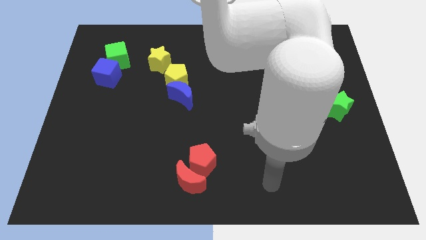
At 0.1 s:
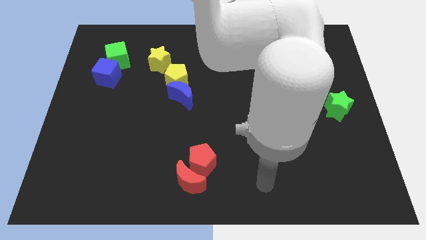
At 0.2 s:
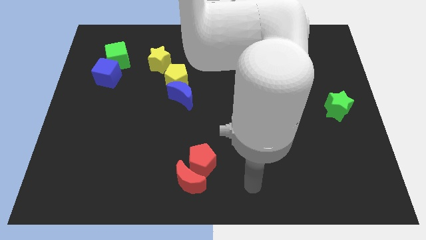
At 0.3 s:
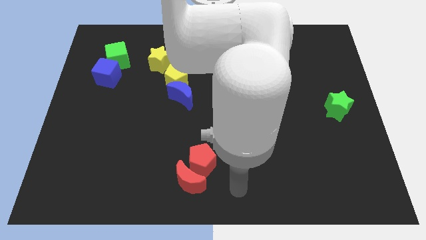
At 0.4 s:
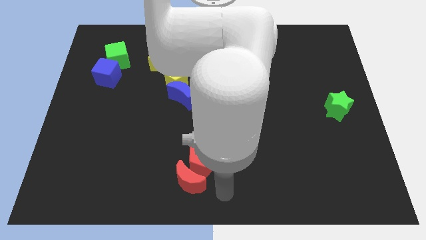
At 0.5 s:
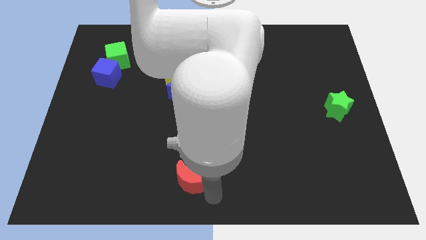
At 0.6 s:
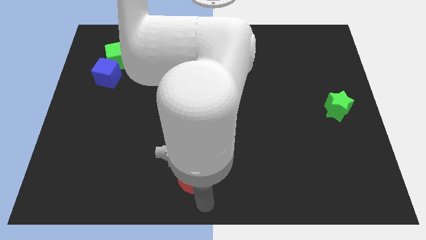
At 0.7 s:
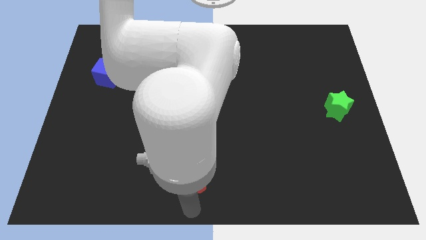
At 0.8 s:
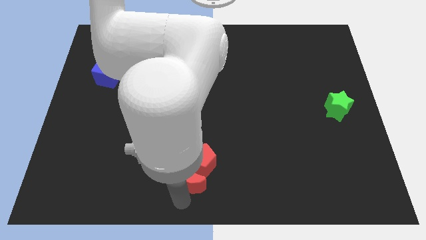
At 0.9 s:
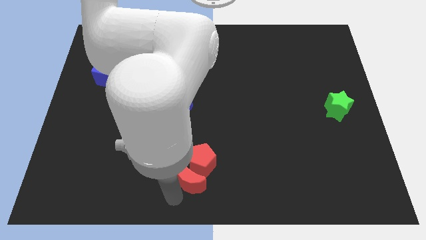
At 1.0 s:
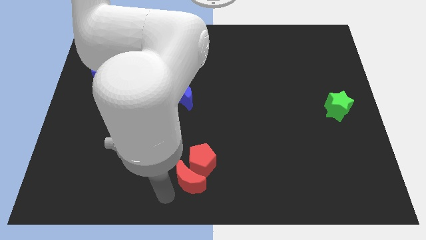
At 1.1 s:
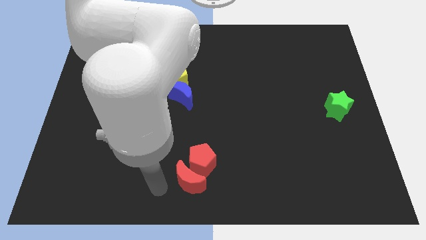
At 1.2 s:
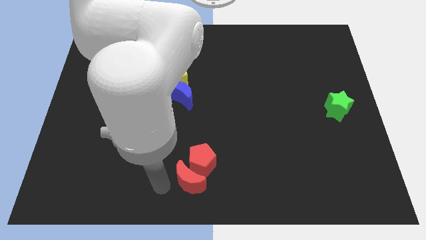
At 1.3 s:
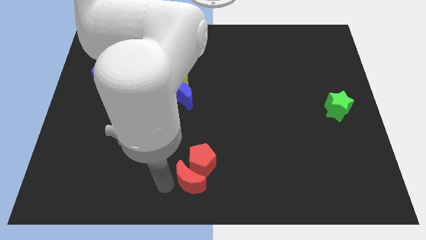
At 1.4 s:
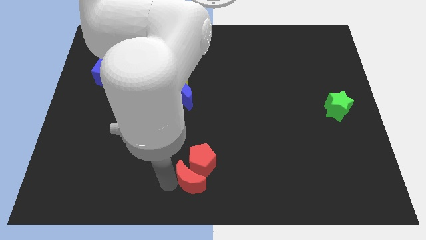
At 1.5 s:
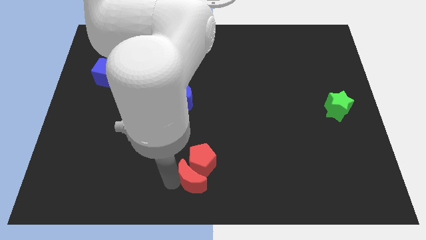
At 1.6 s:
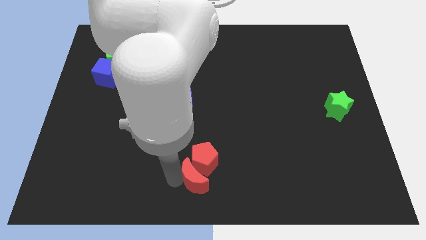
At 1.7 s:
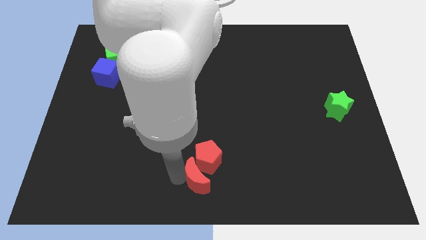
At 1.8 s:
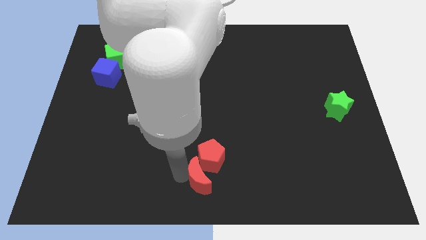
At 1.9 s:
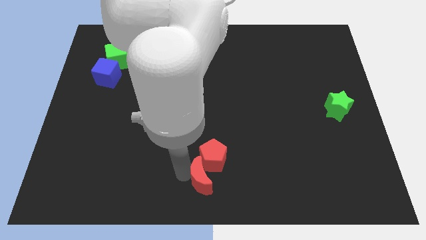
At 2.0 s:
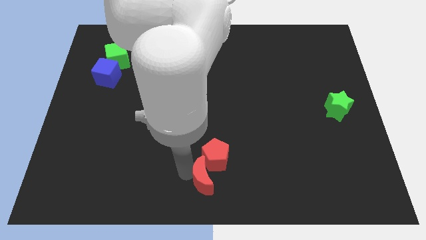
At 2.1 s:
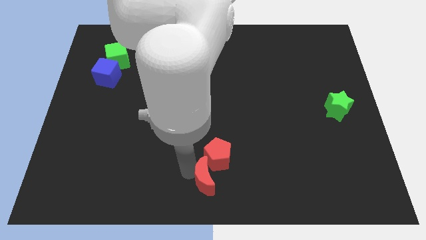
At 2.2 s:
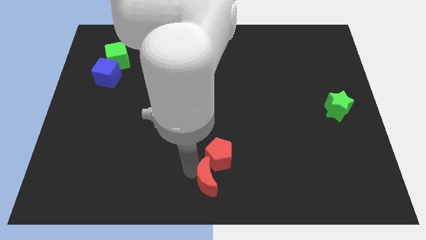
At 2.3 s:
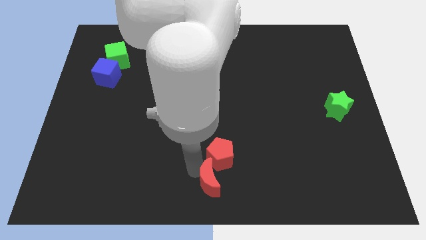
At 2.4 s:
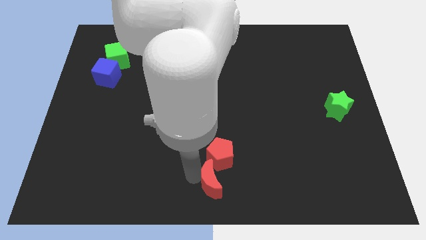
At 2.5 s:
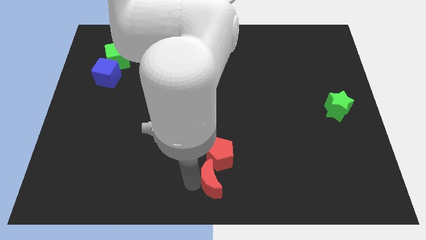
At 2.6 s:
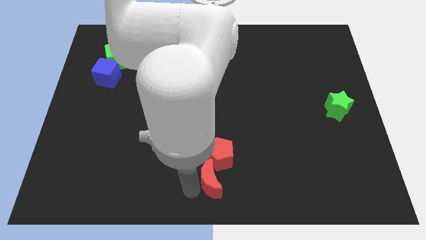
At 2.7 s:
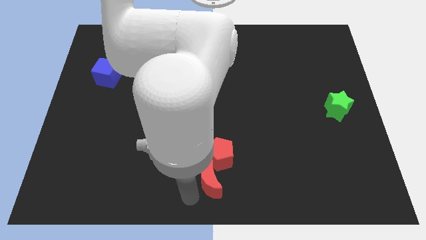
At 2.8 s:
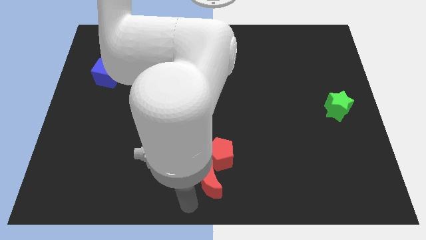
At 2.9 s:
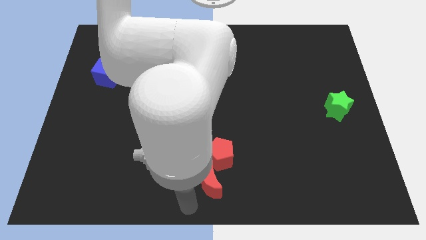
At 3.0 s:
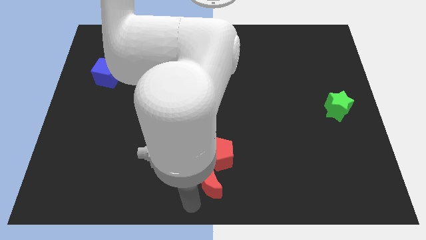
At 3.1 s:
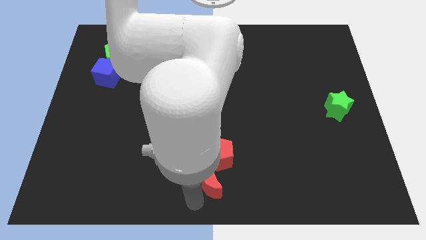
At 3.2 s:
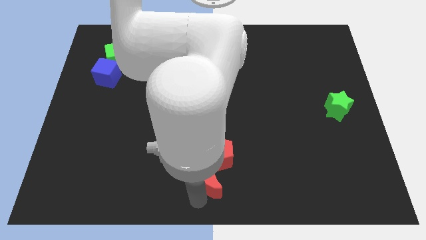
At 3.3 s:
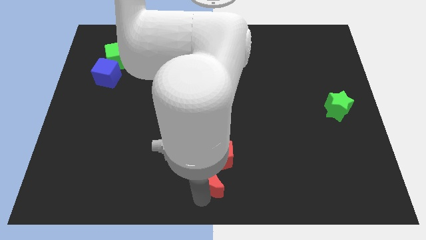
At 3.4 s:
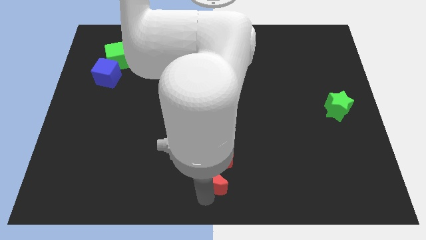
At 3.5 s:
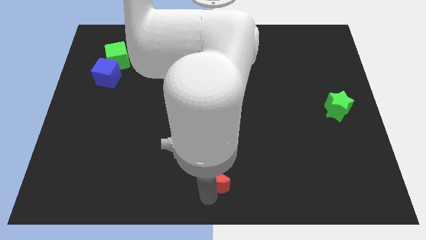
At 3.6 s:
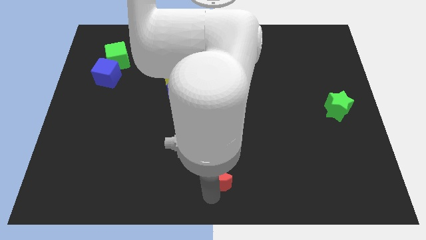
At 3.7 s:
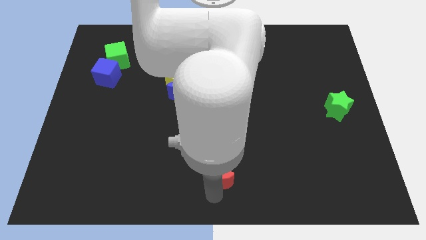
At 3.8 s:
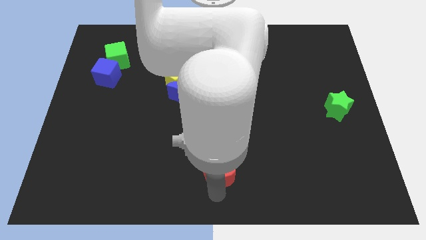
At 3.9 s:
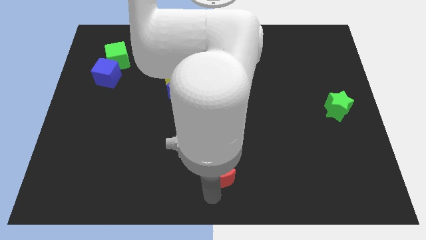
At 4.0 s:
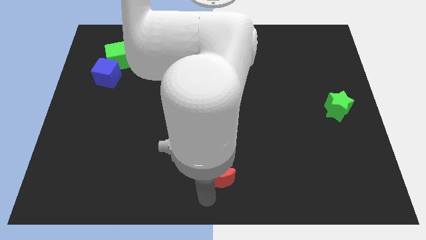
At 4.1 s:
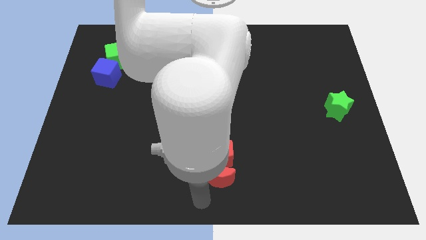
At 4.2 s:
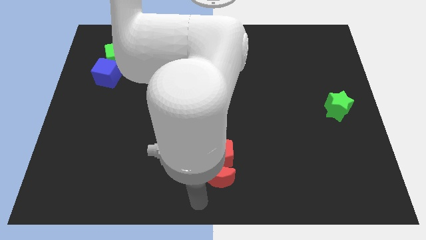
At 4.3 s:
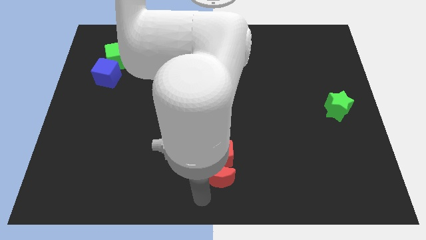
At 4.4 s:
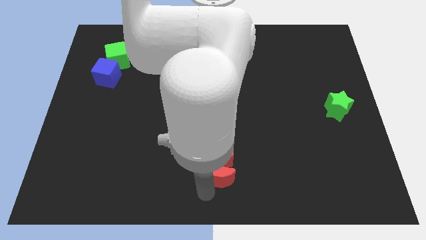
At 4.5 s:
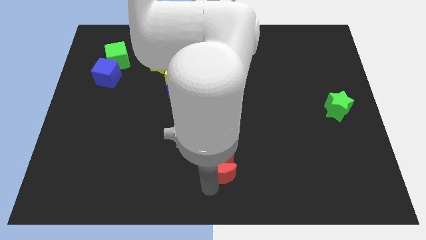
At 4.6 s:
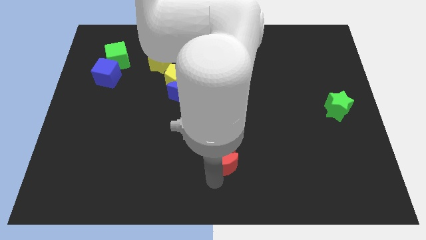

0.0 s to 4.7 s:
slightly slide the red moon upwards and to the right diagonally

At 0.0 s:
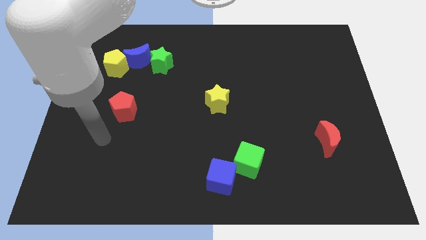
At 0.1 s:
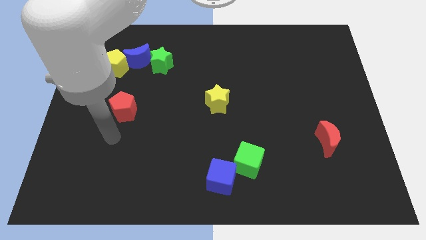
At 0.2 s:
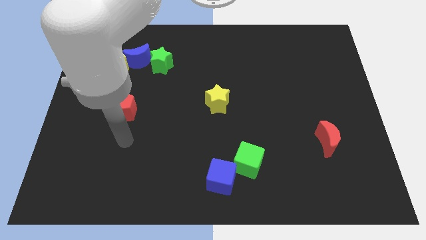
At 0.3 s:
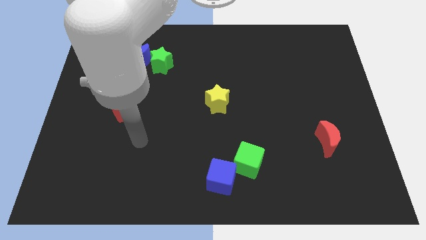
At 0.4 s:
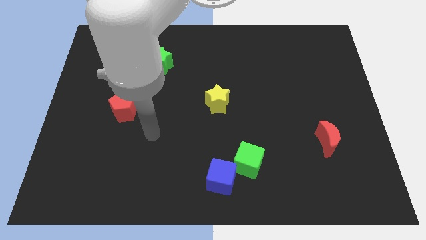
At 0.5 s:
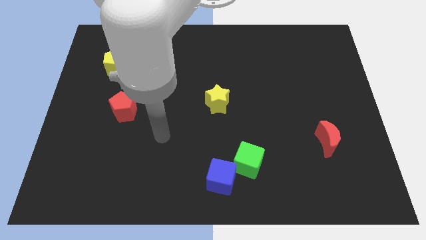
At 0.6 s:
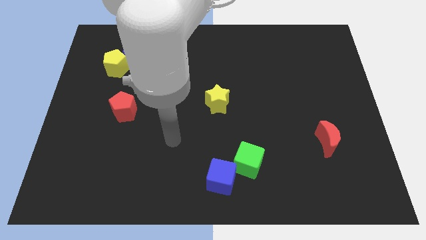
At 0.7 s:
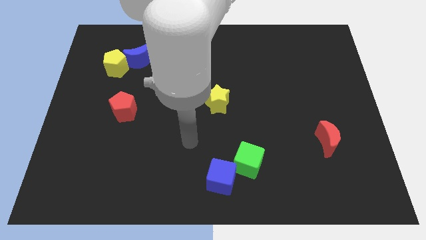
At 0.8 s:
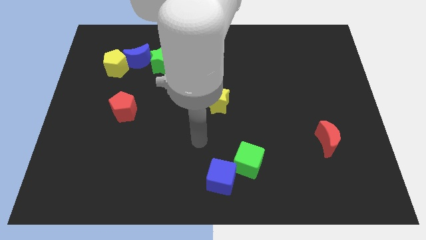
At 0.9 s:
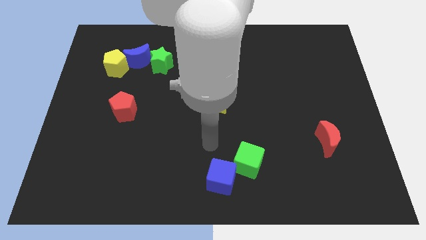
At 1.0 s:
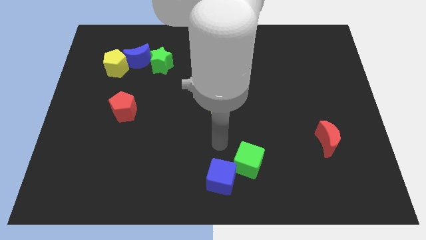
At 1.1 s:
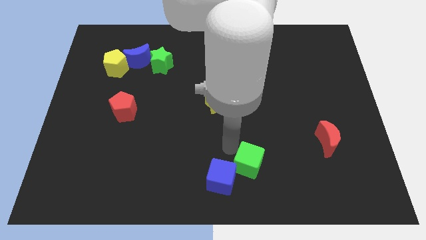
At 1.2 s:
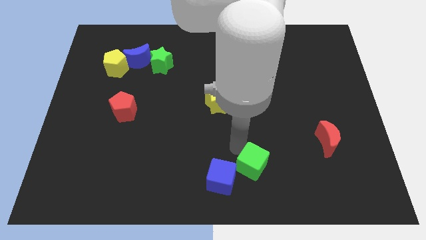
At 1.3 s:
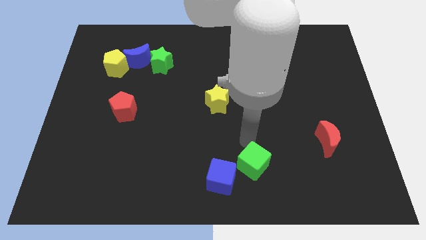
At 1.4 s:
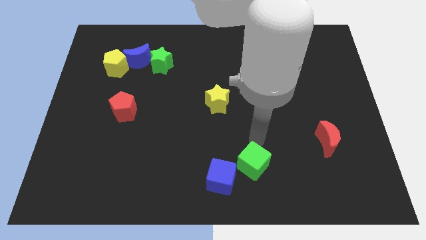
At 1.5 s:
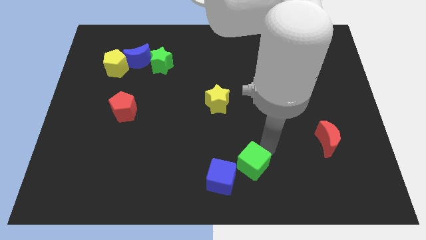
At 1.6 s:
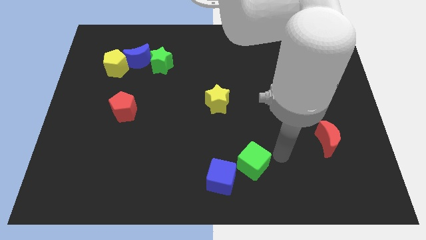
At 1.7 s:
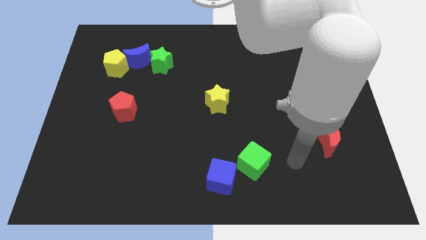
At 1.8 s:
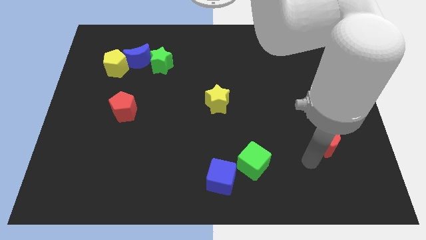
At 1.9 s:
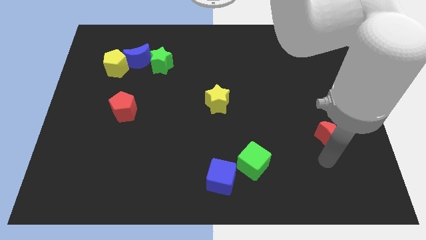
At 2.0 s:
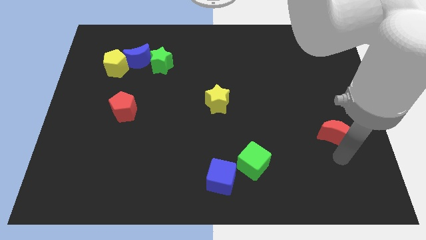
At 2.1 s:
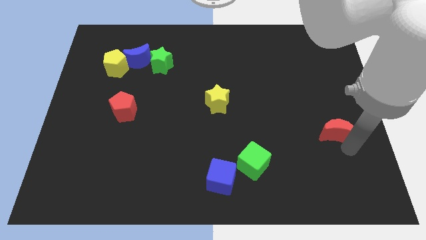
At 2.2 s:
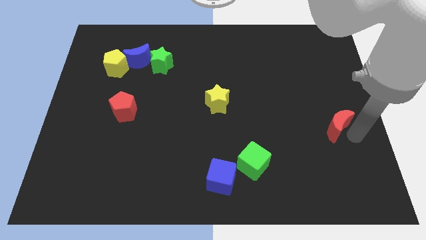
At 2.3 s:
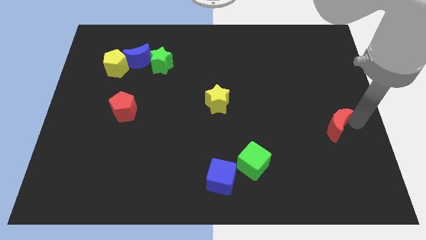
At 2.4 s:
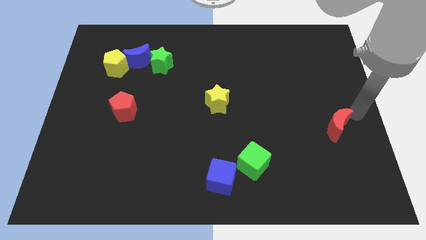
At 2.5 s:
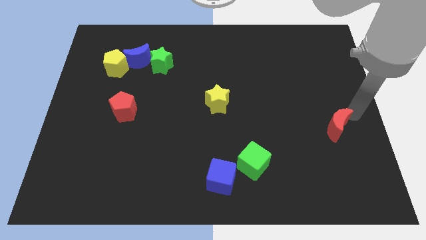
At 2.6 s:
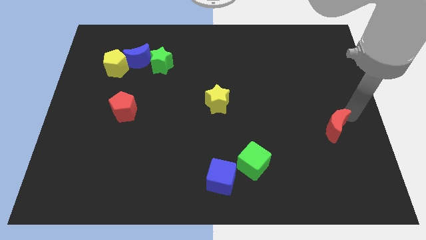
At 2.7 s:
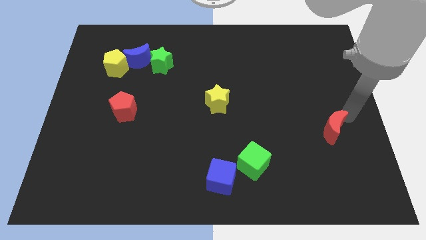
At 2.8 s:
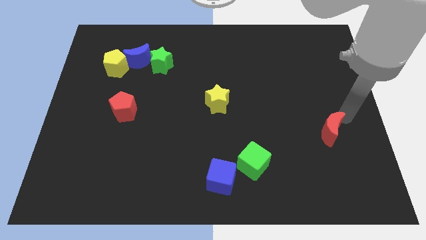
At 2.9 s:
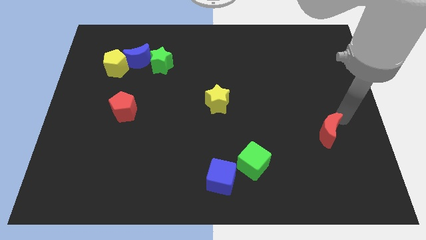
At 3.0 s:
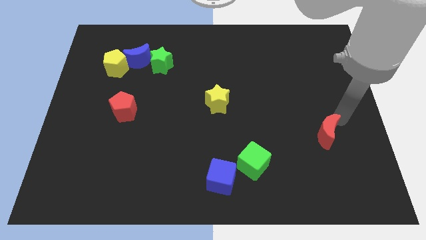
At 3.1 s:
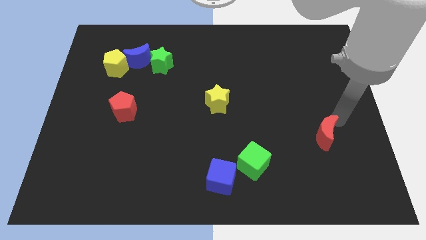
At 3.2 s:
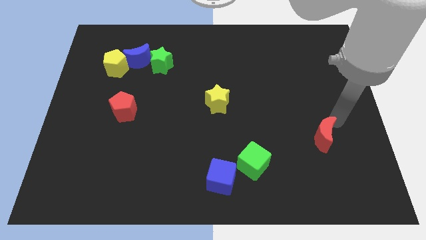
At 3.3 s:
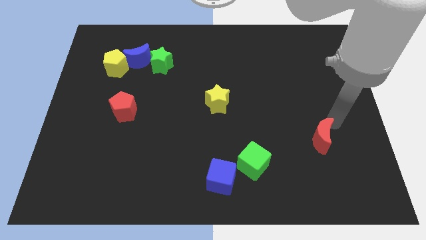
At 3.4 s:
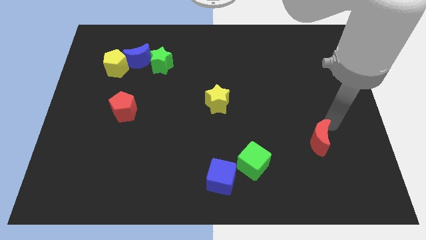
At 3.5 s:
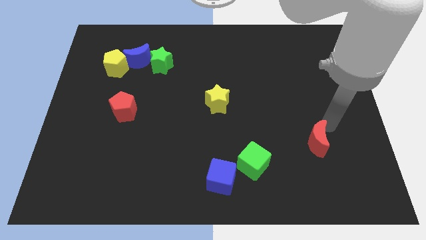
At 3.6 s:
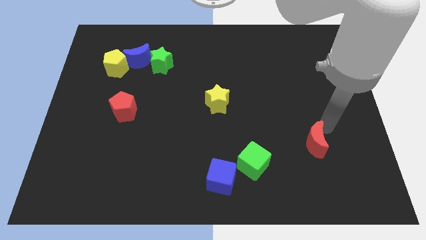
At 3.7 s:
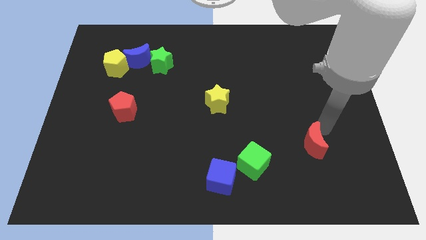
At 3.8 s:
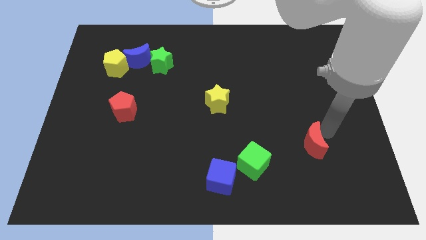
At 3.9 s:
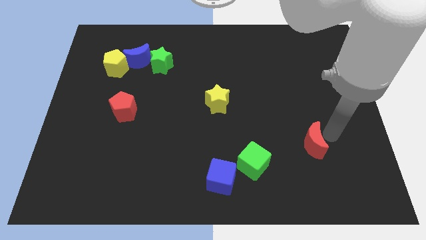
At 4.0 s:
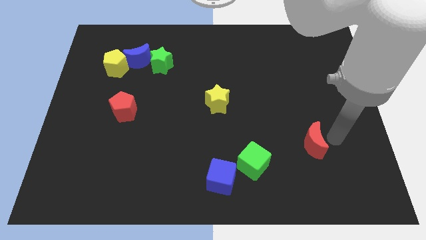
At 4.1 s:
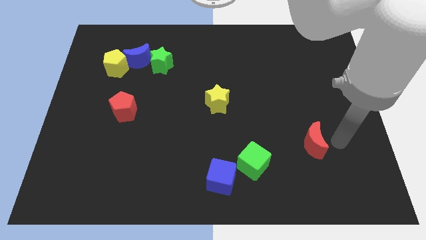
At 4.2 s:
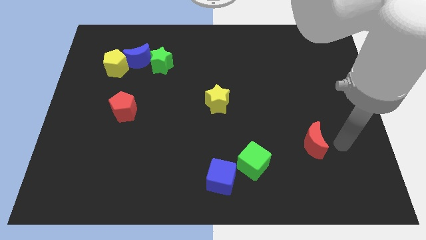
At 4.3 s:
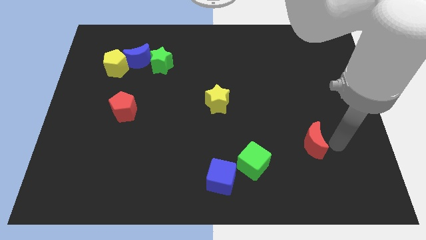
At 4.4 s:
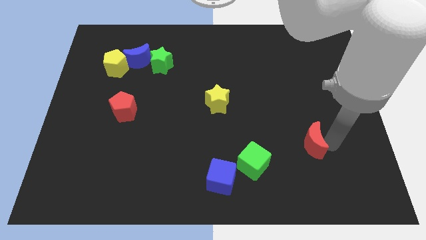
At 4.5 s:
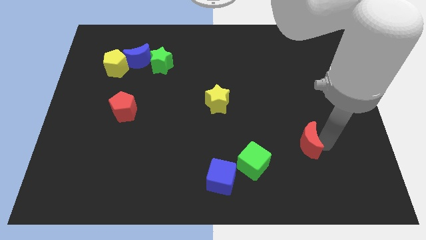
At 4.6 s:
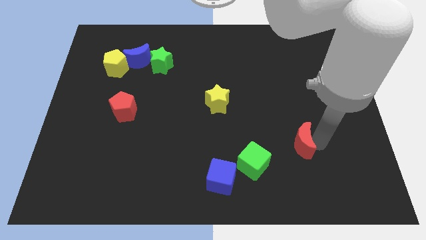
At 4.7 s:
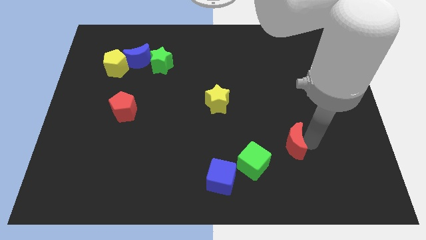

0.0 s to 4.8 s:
move the red moon a bit left
